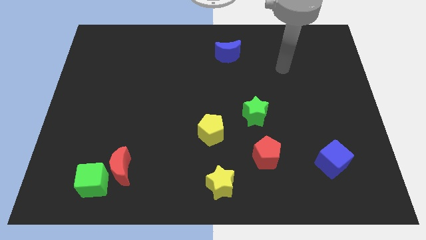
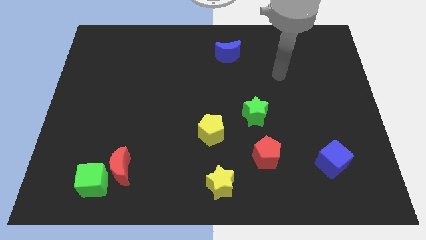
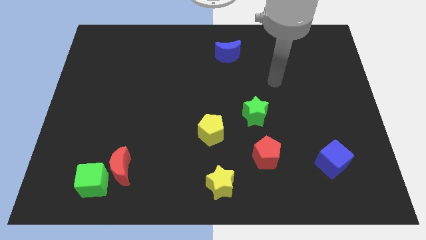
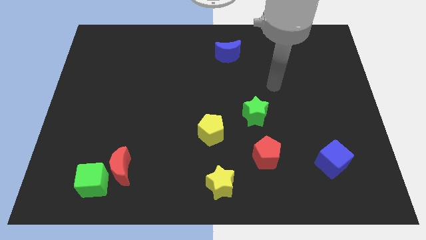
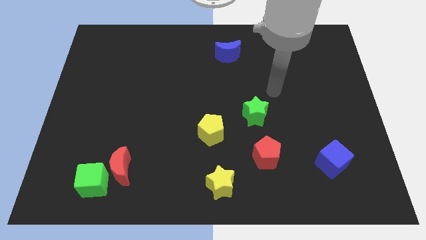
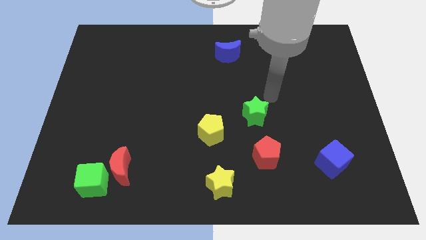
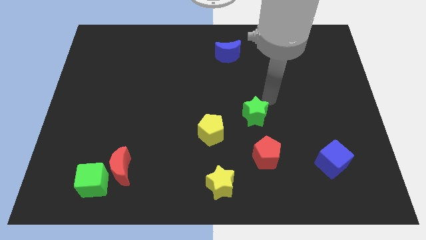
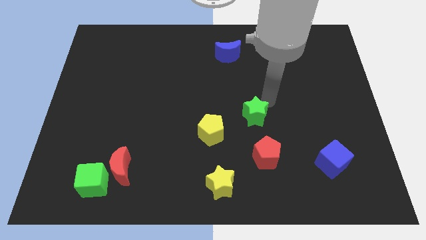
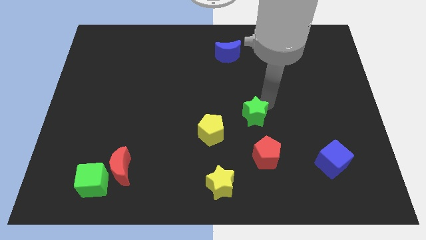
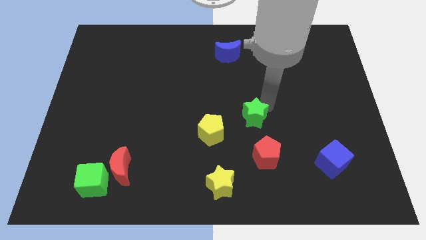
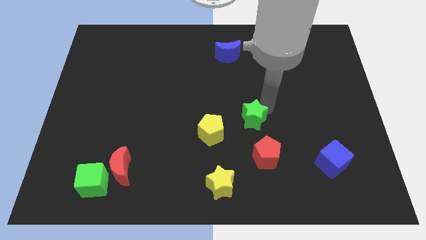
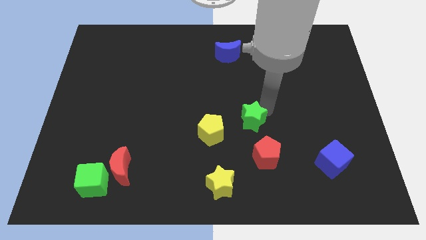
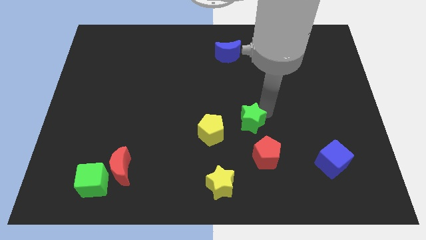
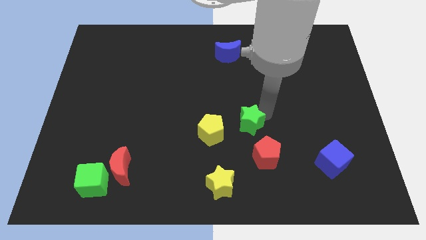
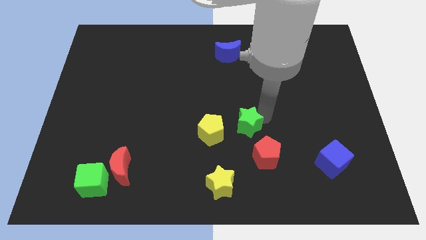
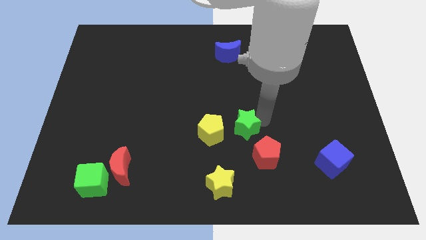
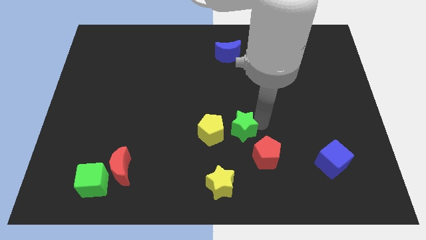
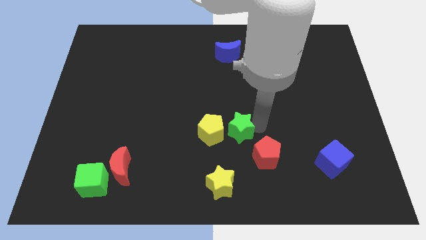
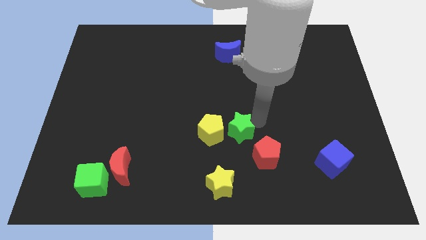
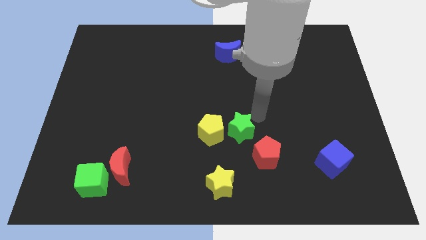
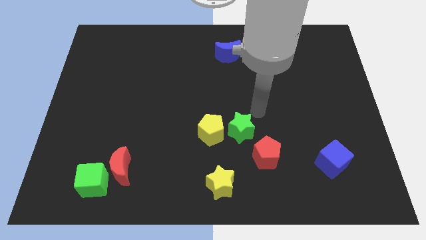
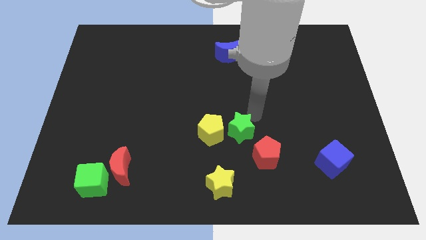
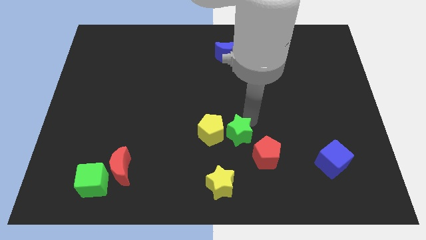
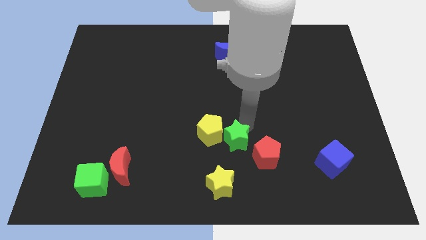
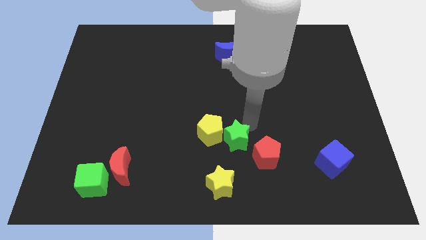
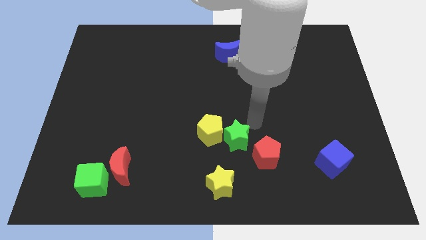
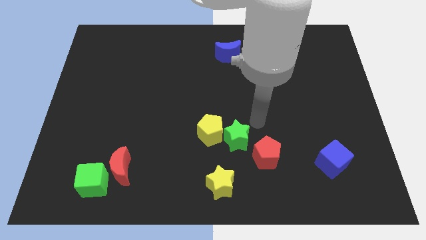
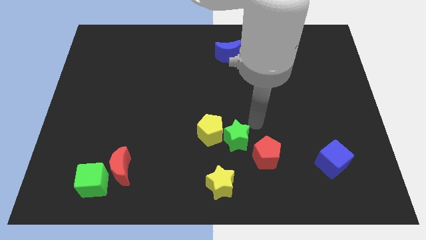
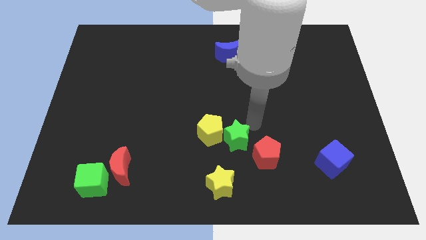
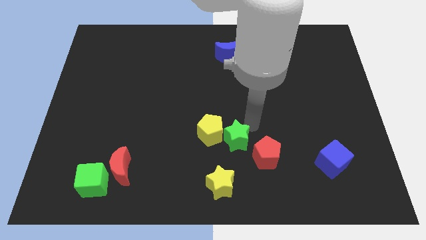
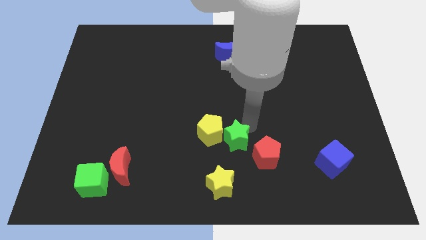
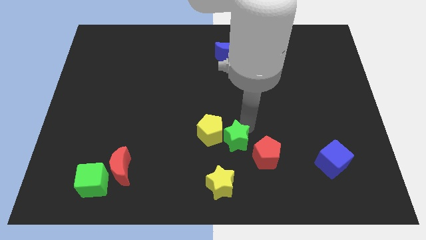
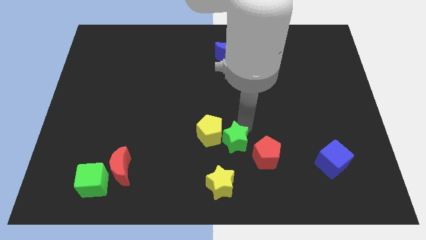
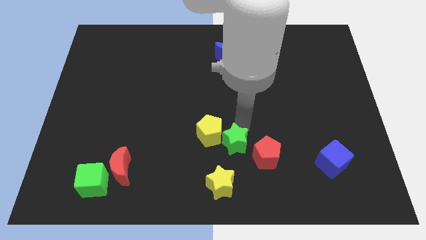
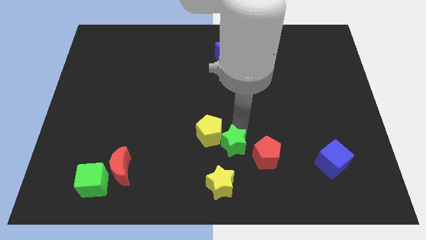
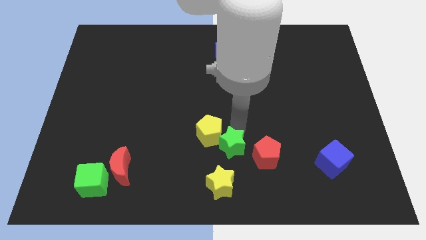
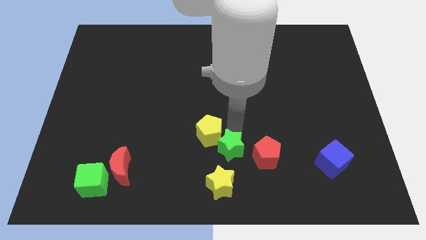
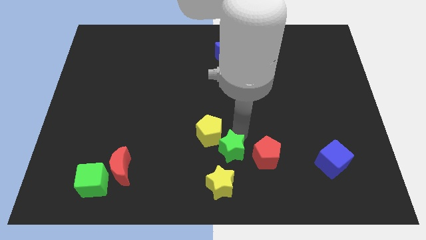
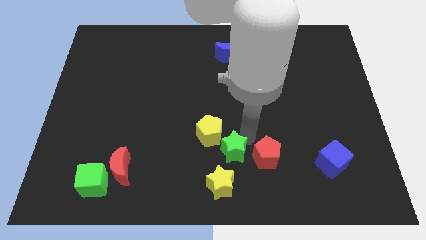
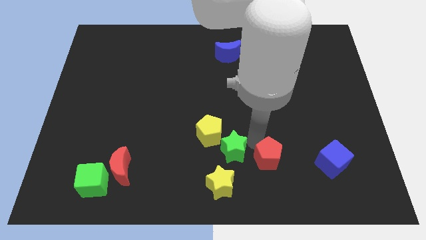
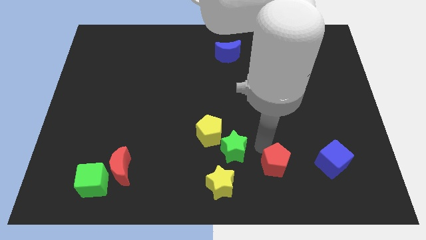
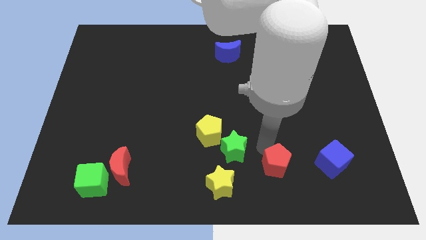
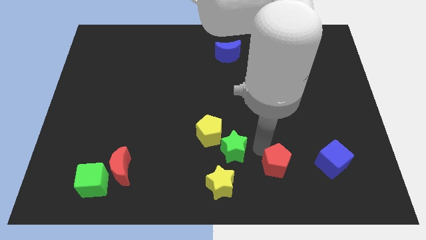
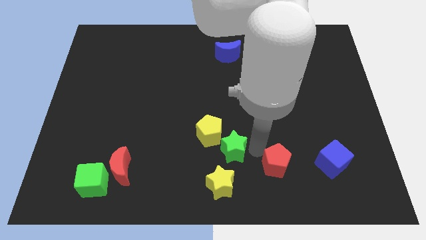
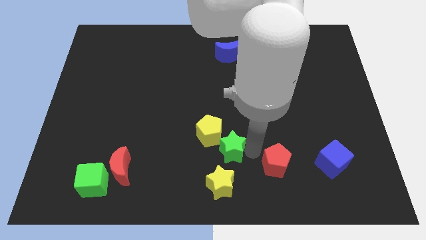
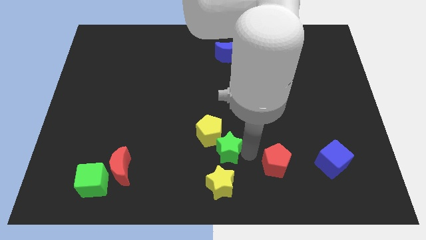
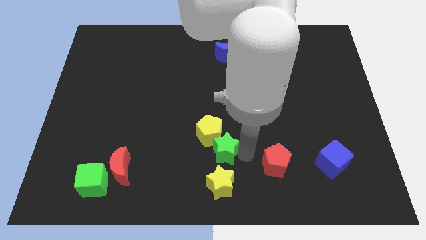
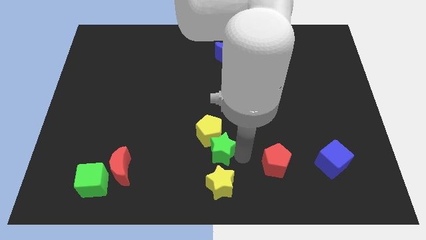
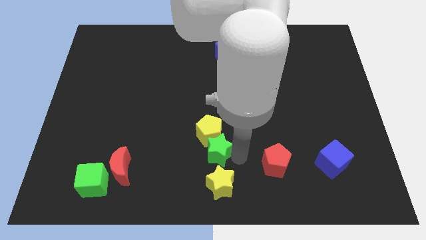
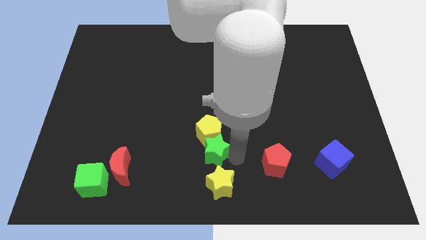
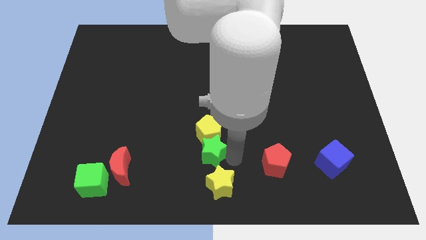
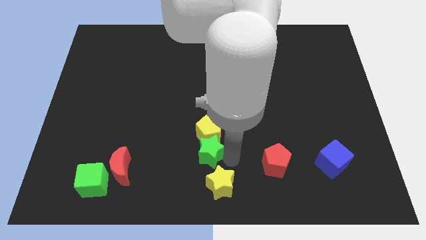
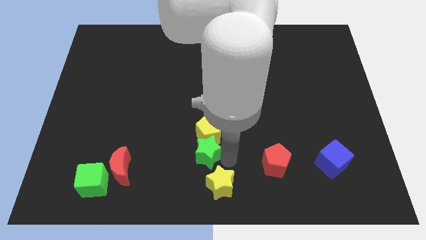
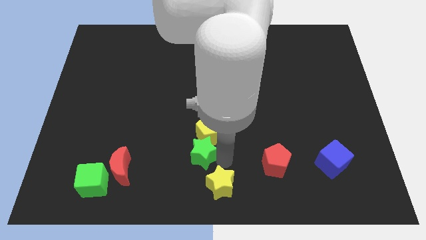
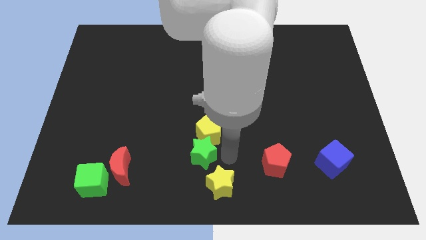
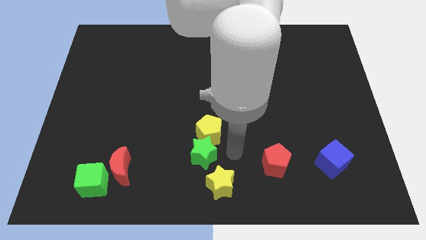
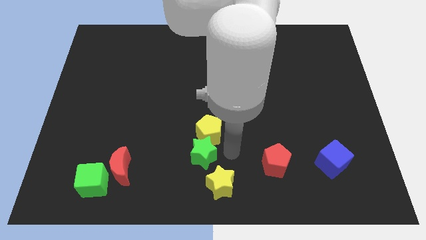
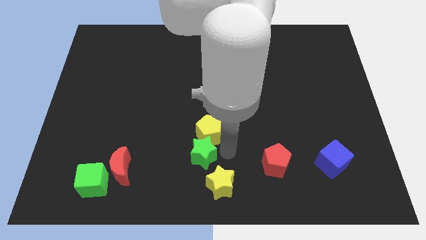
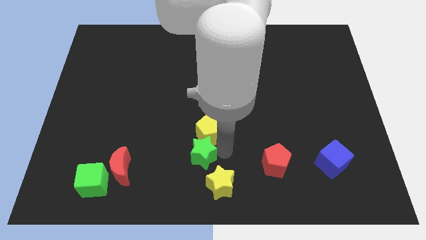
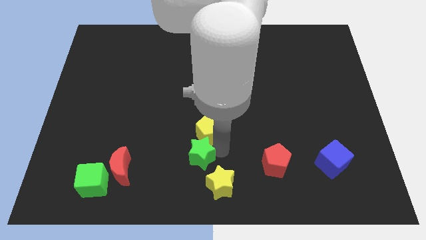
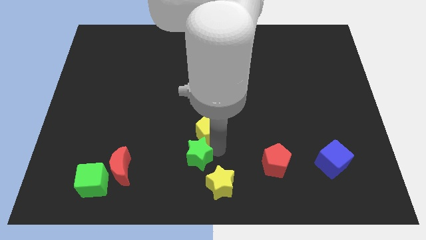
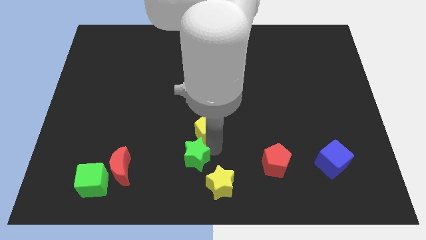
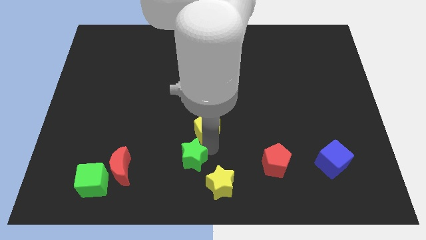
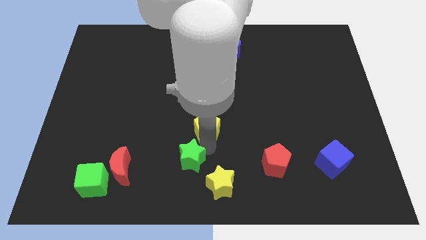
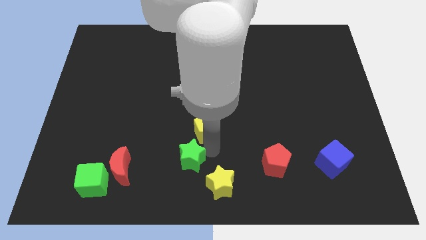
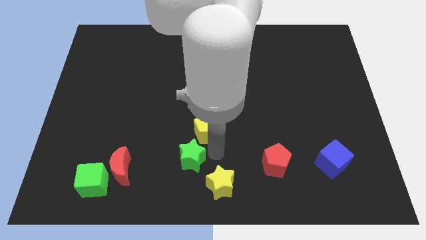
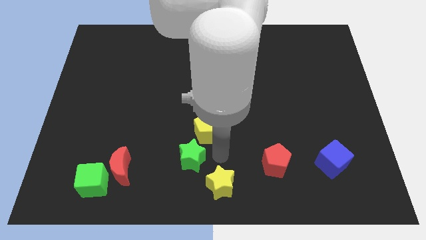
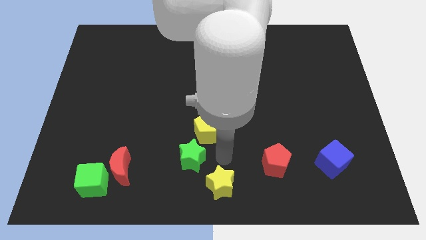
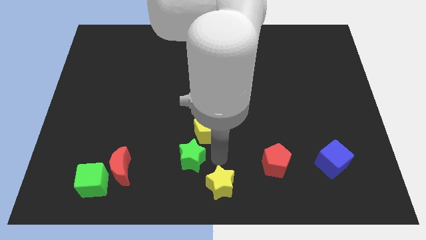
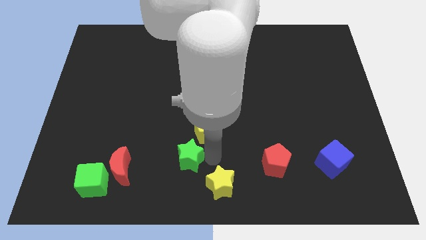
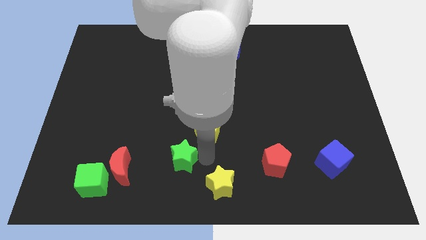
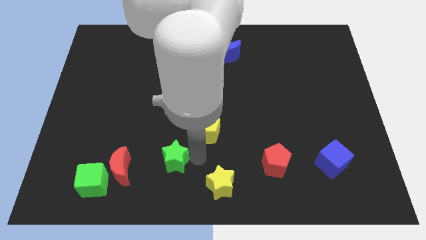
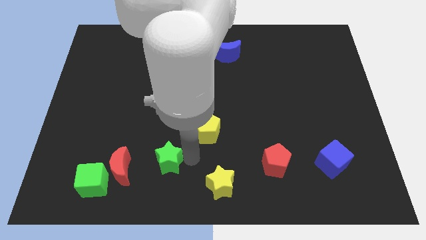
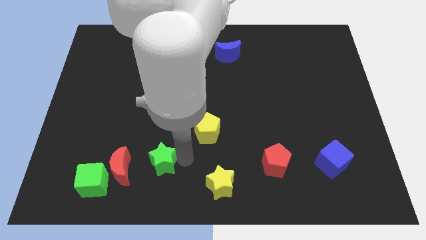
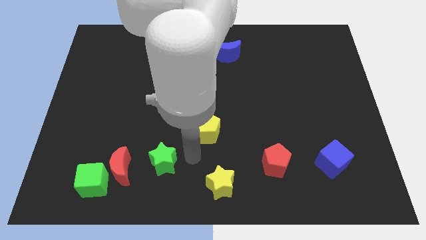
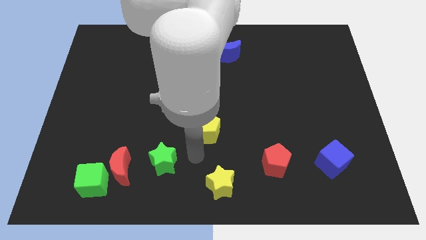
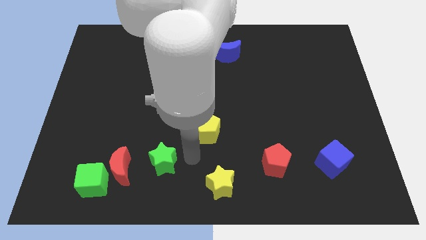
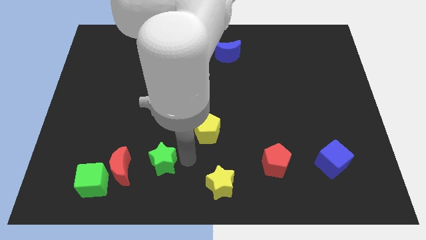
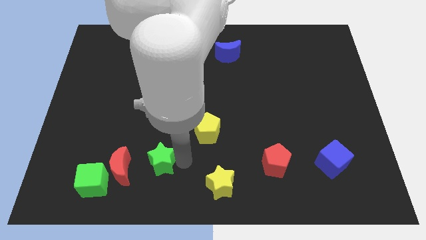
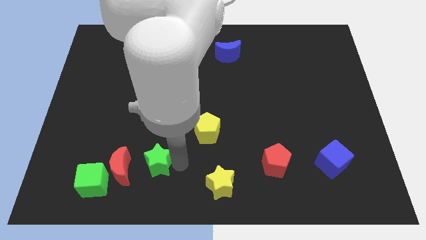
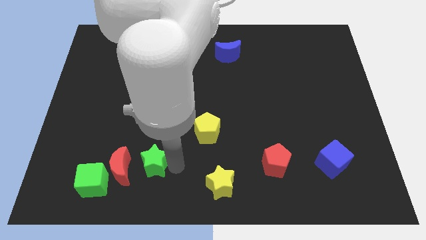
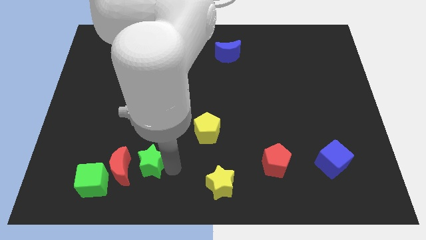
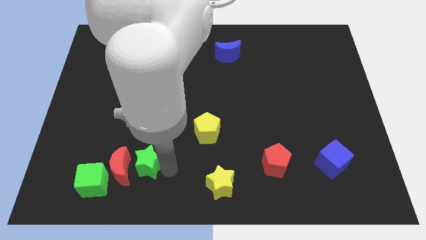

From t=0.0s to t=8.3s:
push the green star towards the red moon
